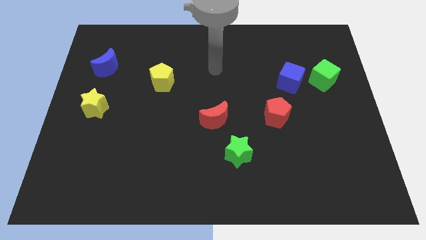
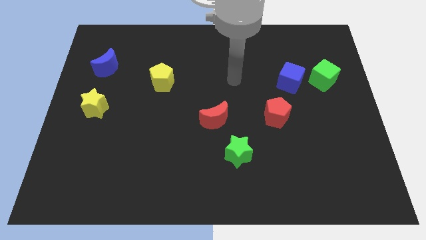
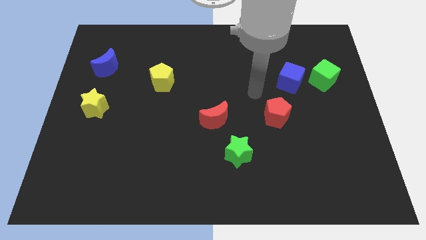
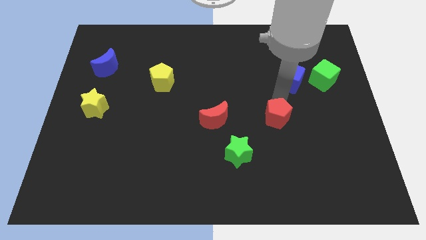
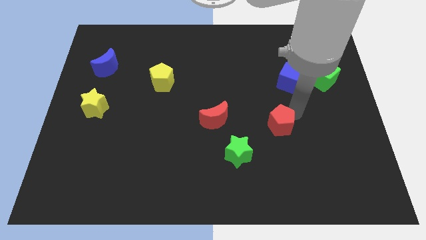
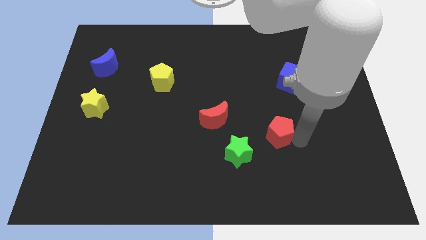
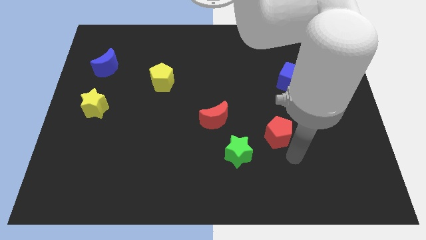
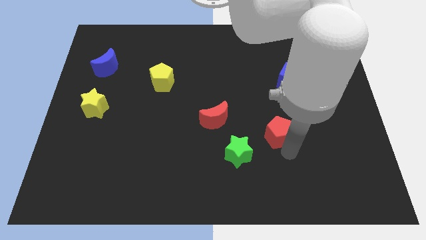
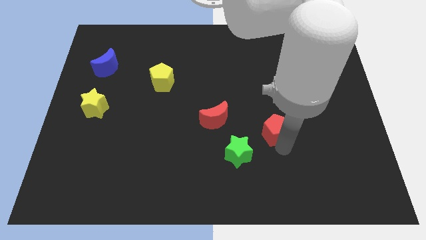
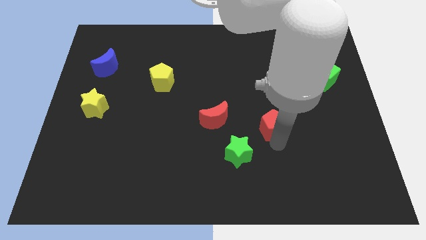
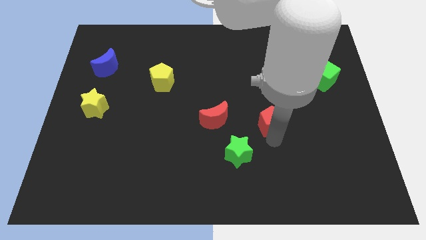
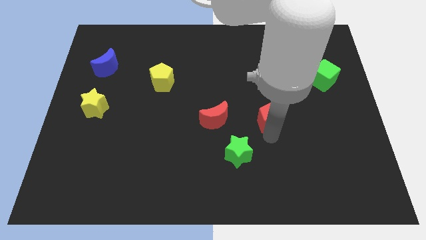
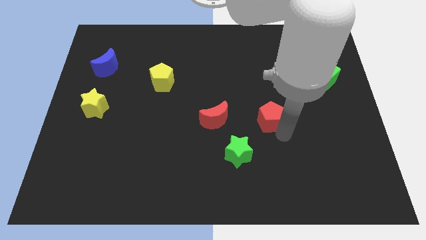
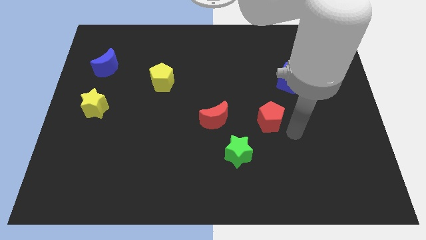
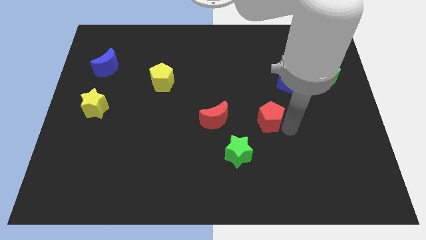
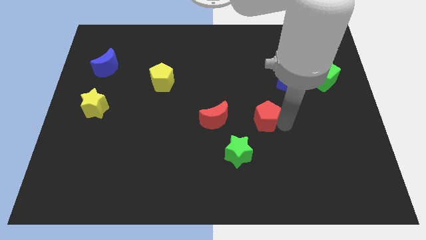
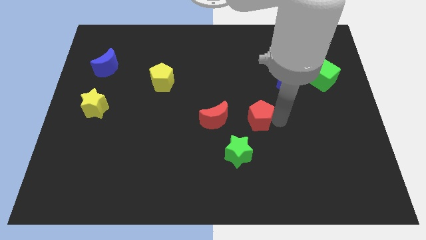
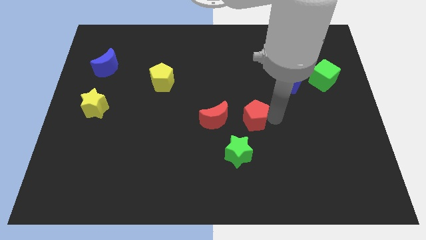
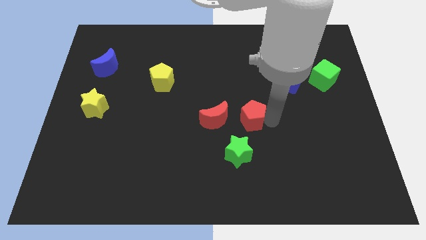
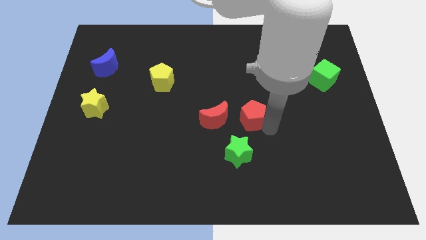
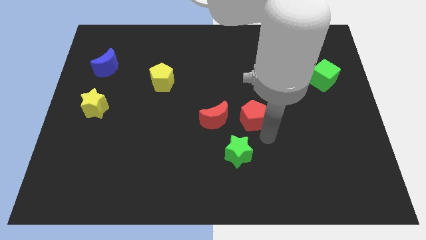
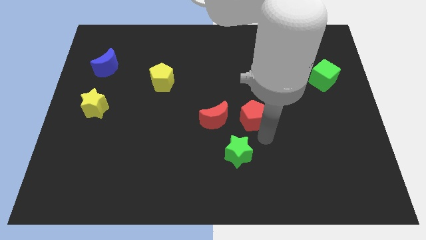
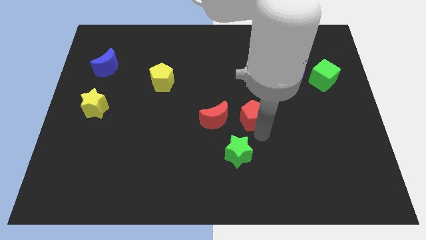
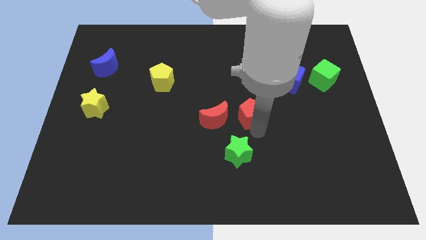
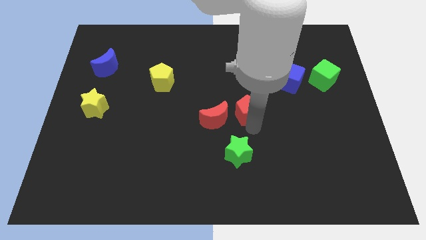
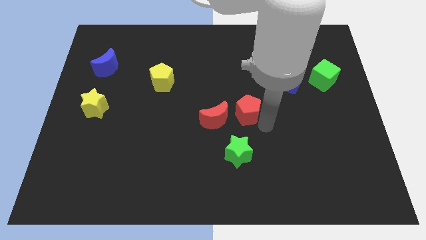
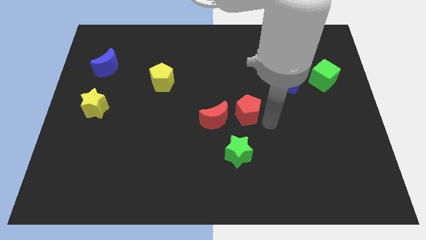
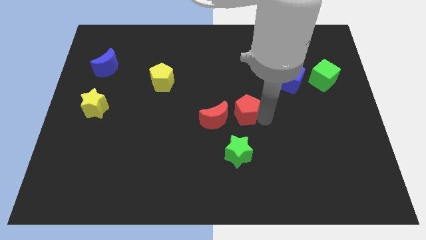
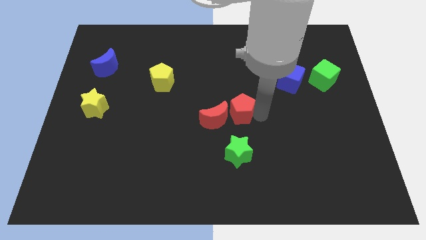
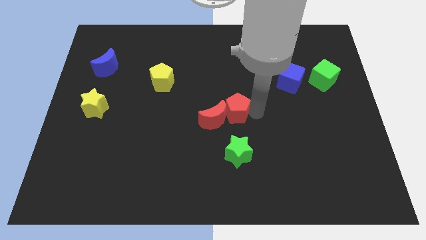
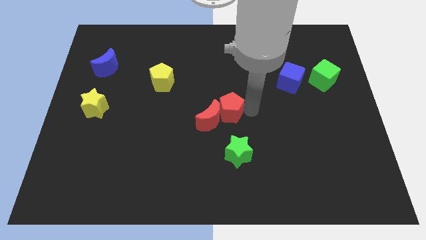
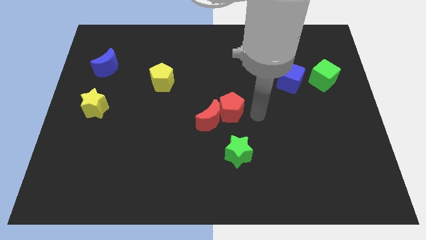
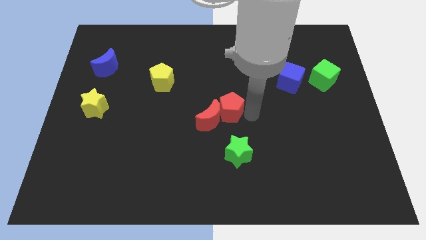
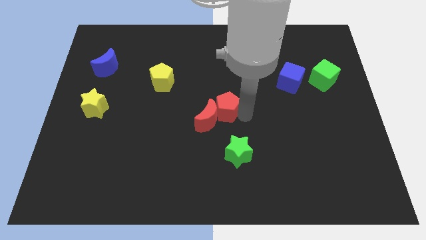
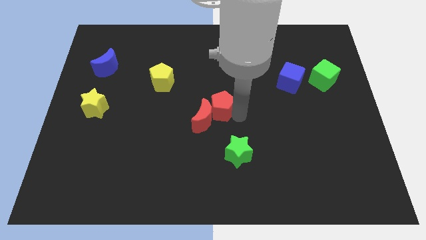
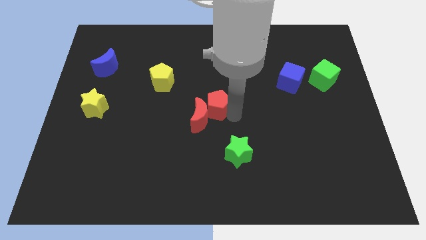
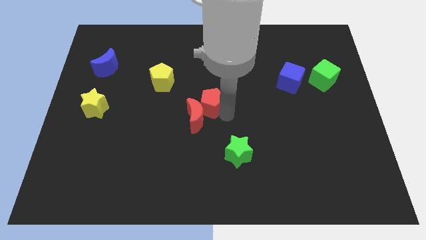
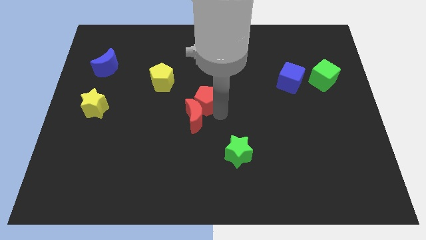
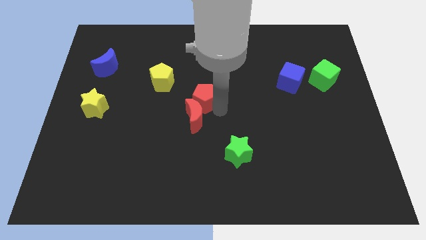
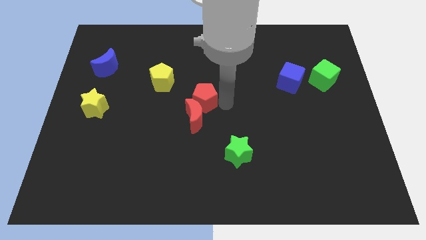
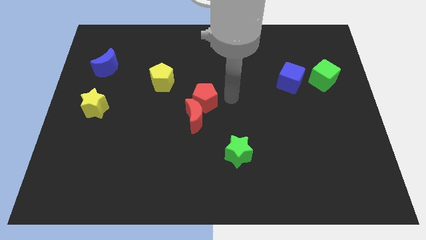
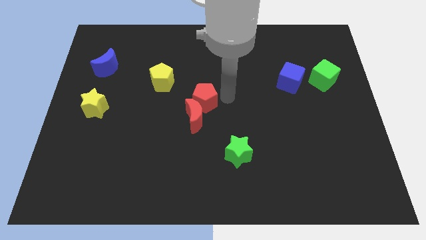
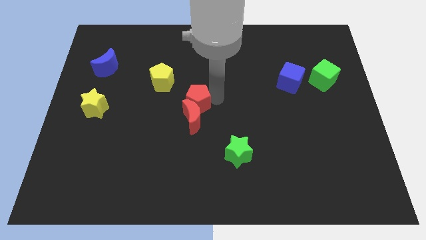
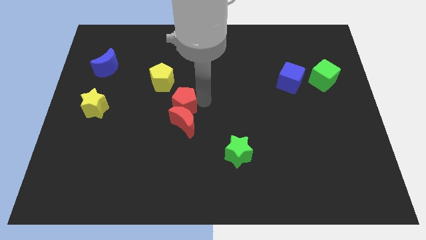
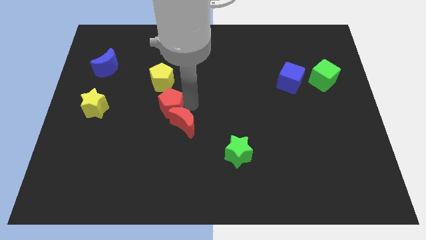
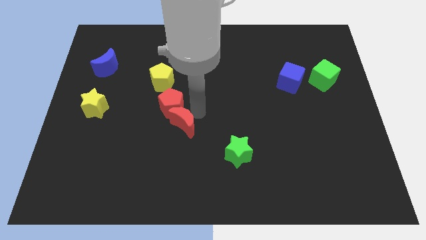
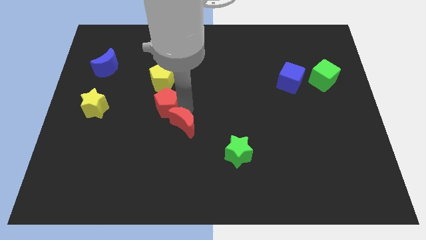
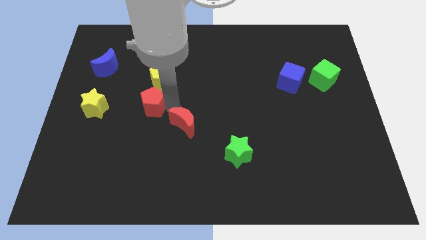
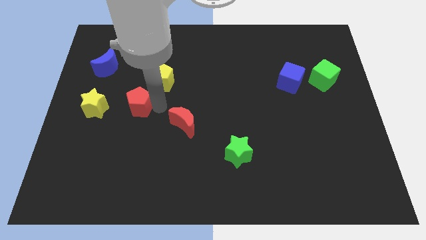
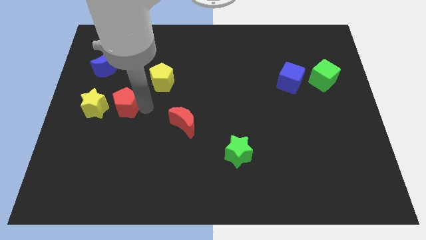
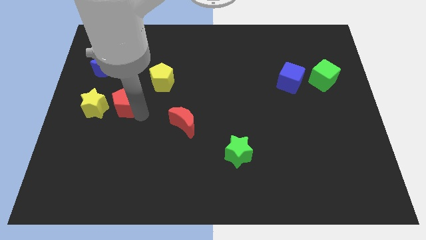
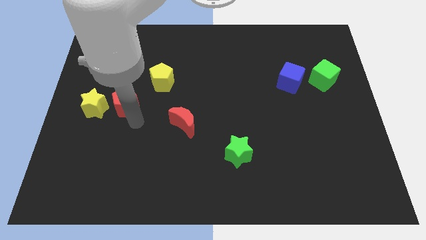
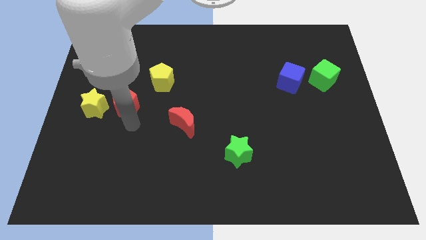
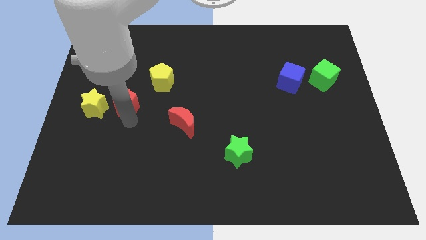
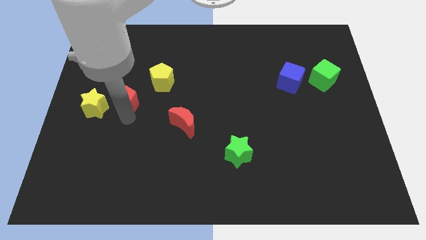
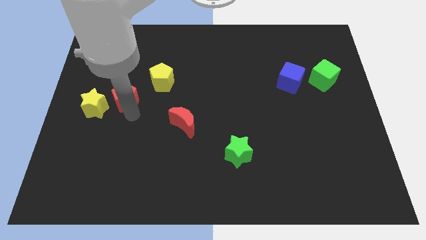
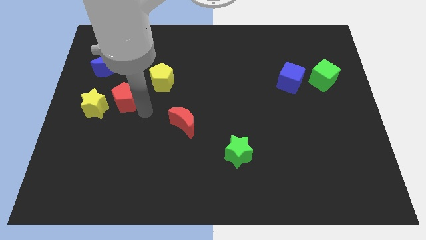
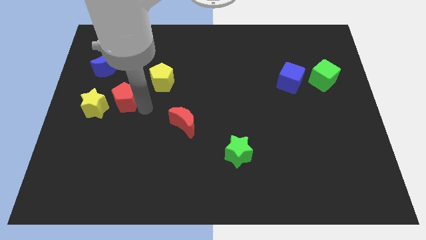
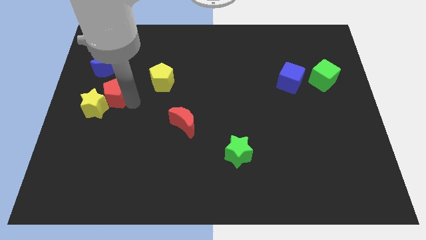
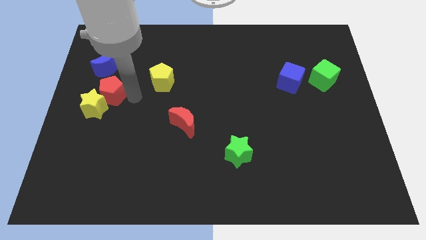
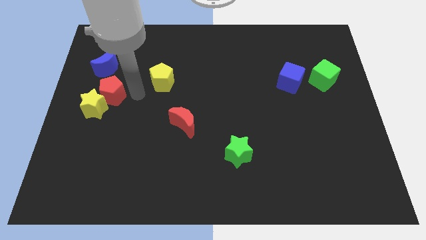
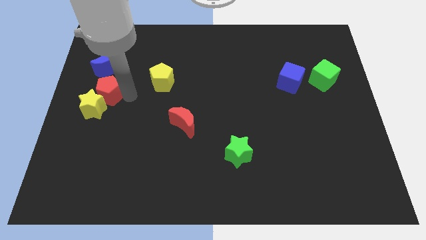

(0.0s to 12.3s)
push the red pentagon to the left side of the board

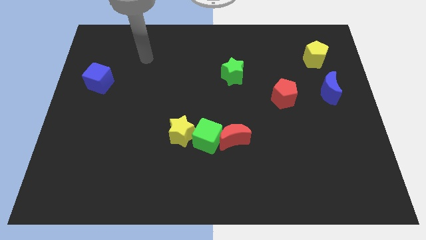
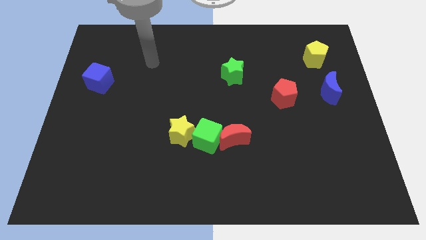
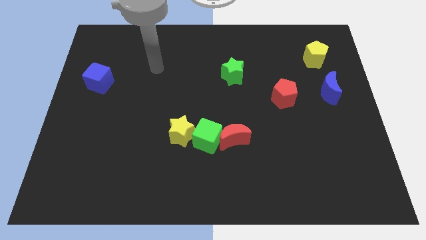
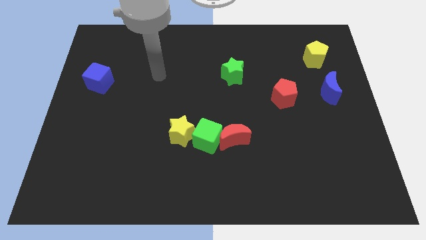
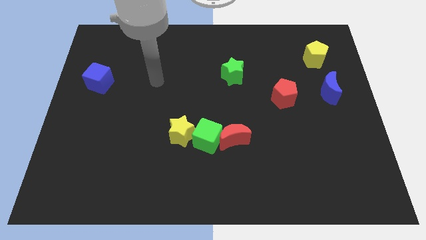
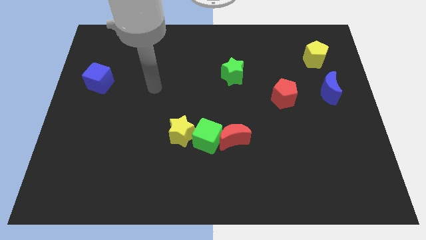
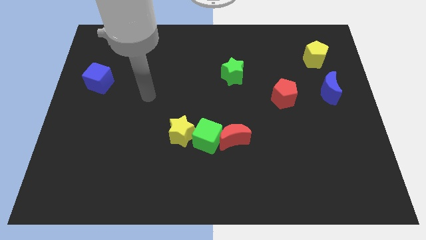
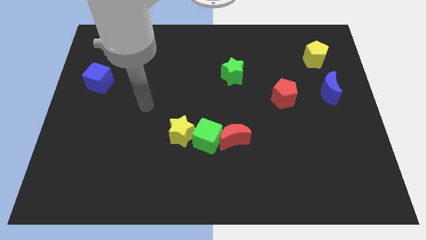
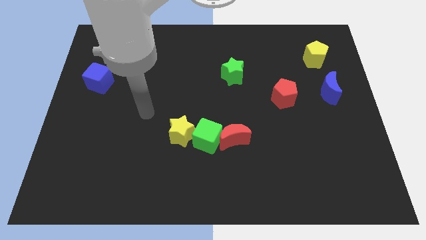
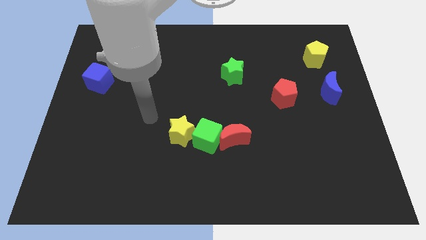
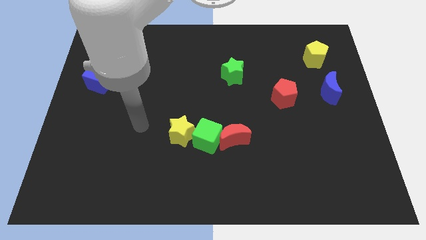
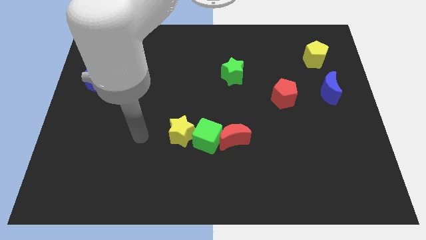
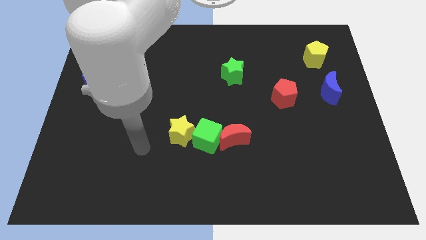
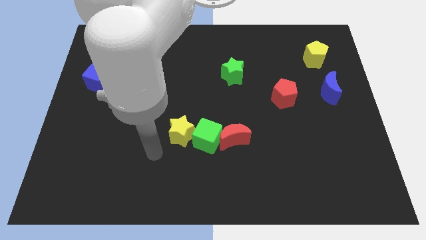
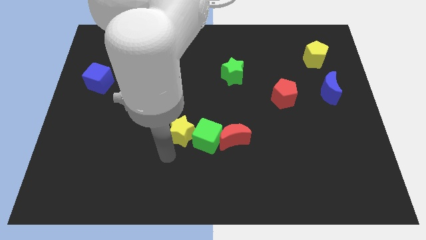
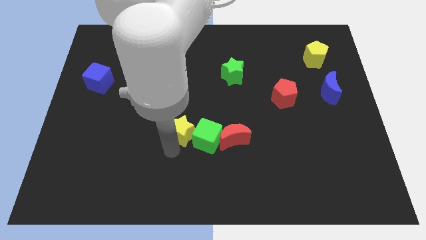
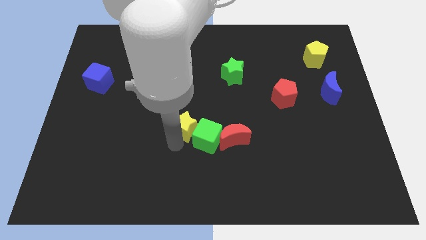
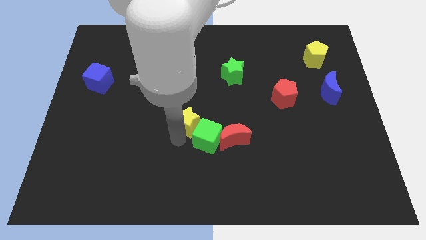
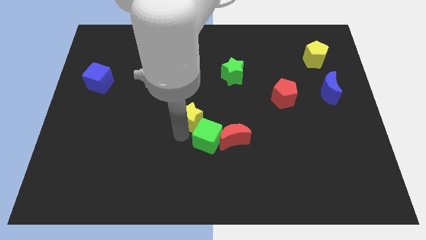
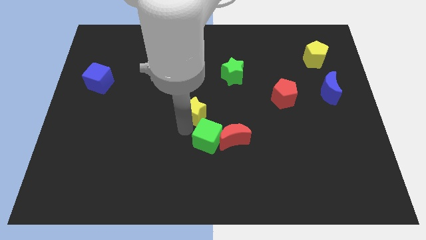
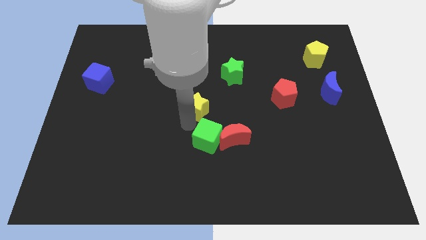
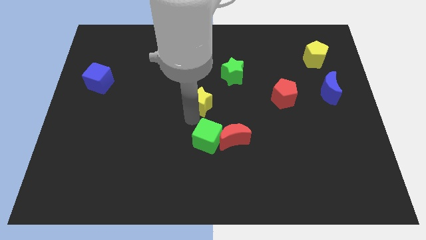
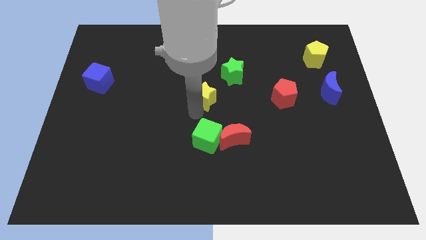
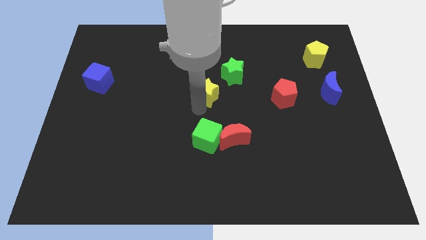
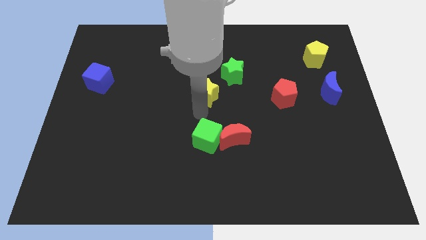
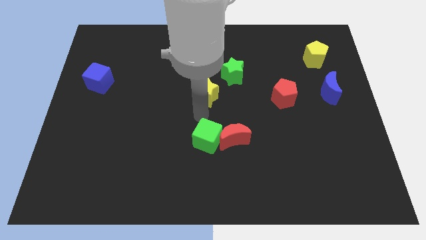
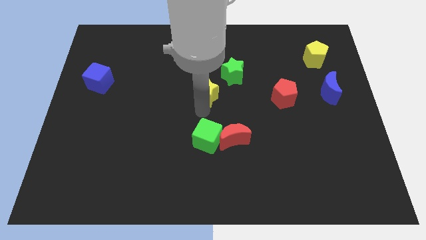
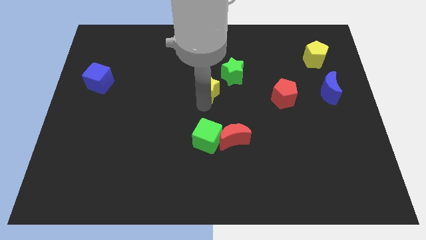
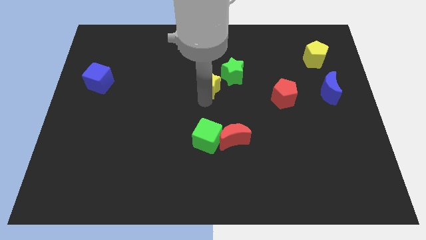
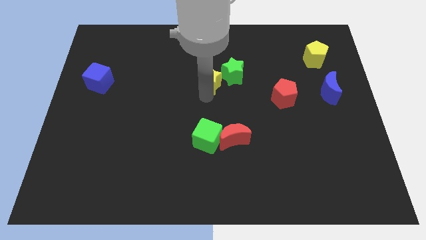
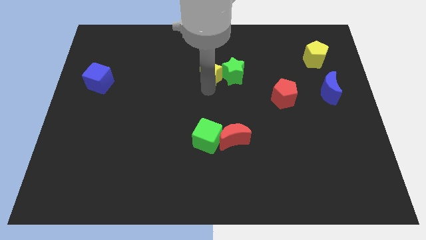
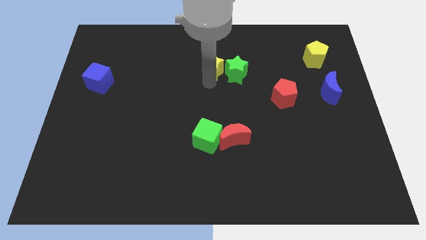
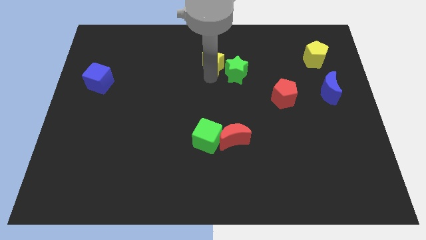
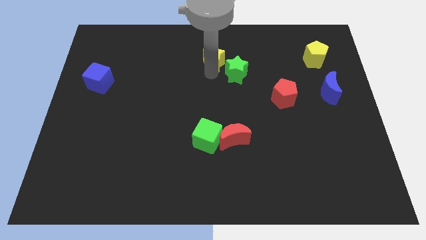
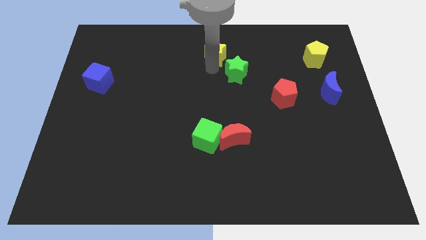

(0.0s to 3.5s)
put the yellow star to the towards your base
